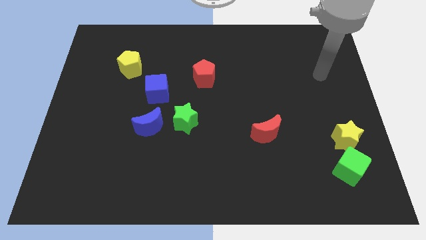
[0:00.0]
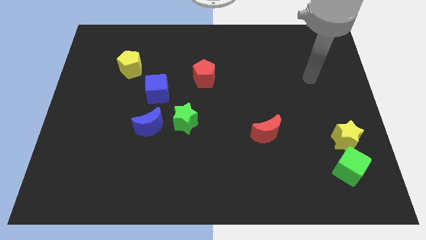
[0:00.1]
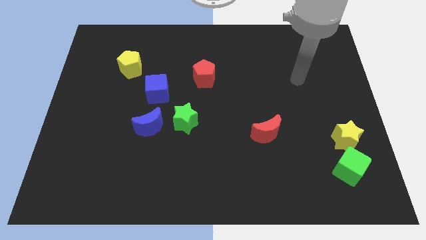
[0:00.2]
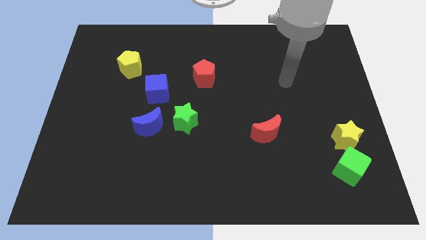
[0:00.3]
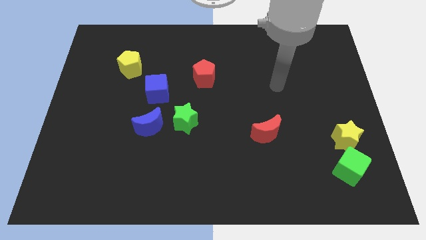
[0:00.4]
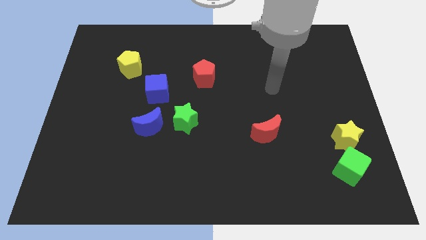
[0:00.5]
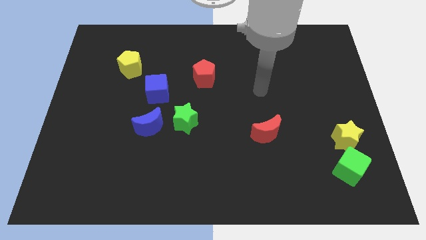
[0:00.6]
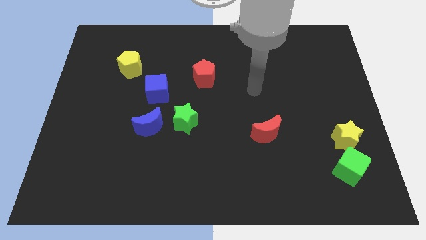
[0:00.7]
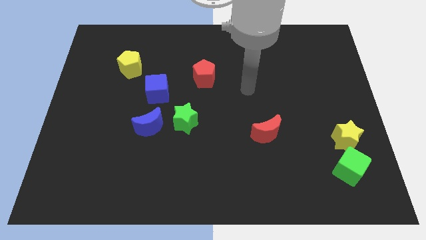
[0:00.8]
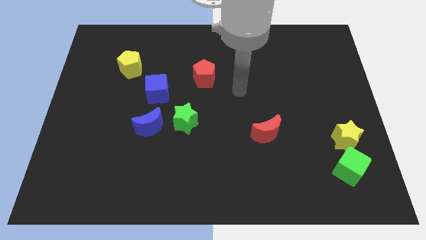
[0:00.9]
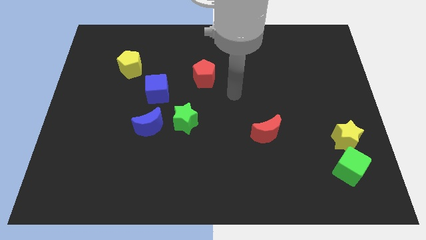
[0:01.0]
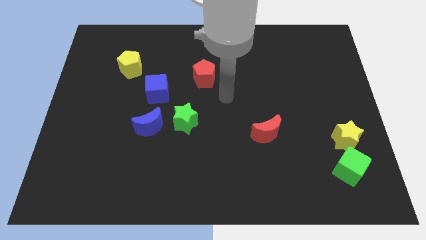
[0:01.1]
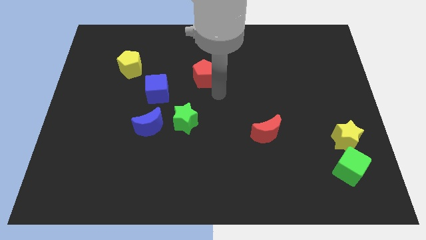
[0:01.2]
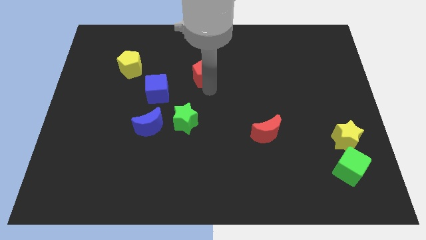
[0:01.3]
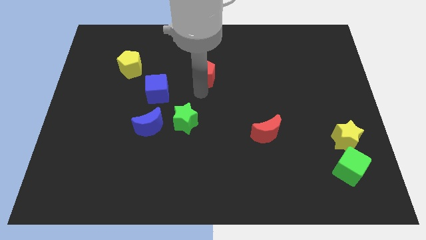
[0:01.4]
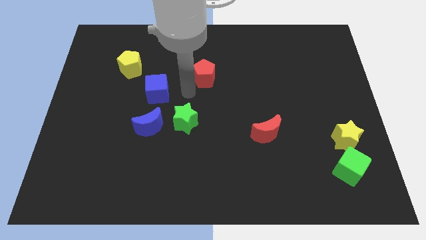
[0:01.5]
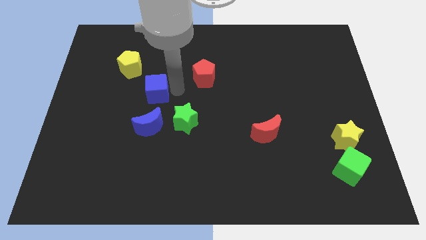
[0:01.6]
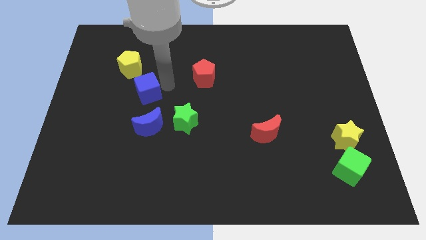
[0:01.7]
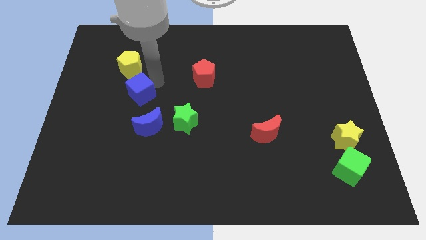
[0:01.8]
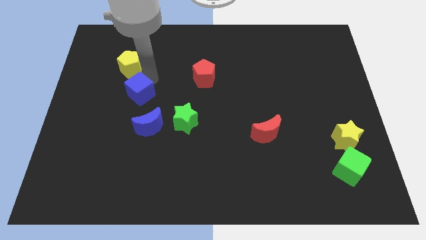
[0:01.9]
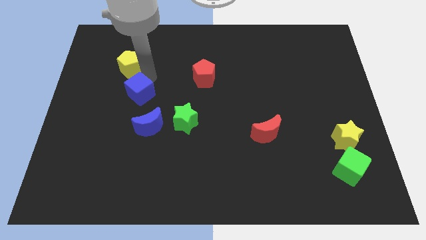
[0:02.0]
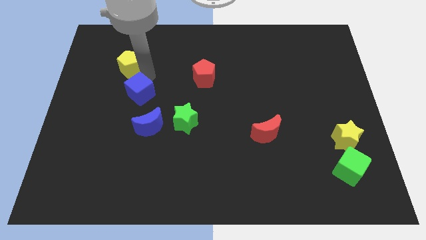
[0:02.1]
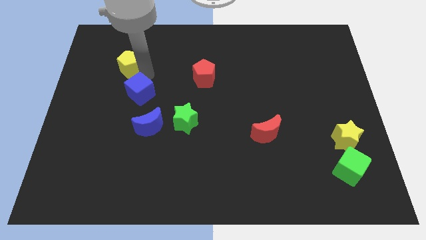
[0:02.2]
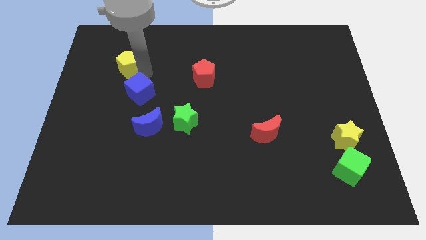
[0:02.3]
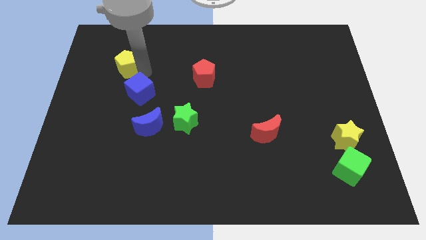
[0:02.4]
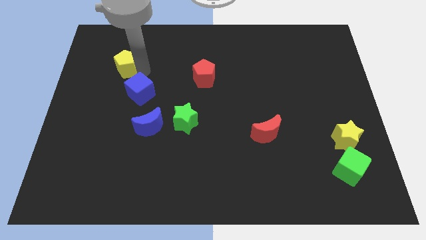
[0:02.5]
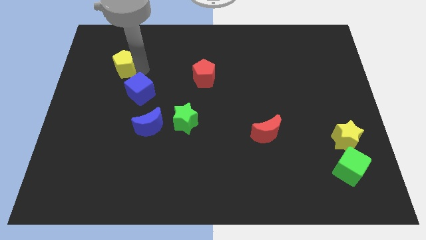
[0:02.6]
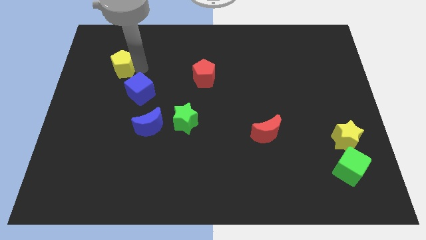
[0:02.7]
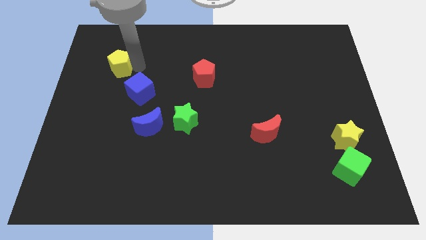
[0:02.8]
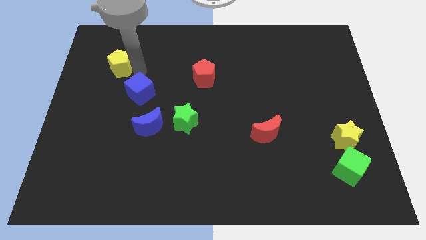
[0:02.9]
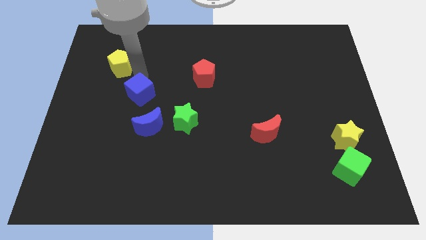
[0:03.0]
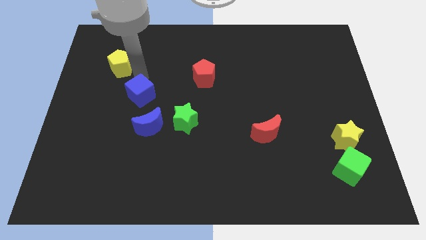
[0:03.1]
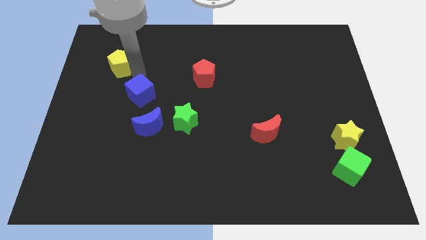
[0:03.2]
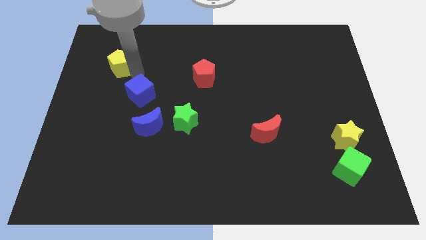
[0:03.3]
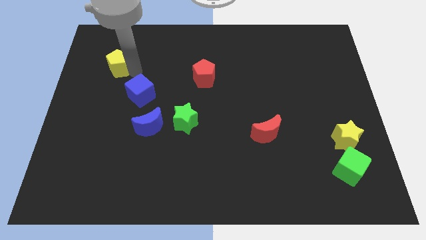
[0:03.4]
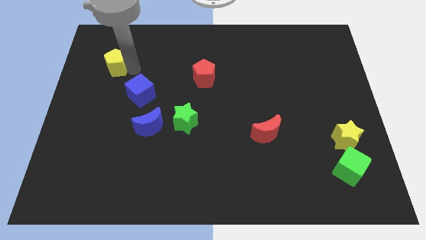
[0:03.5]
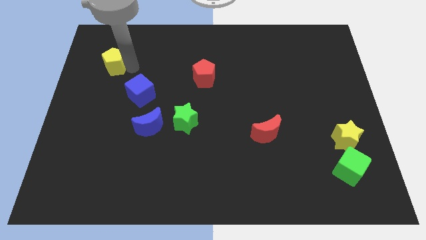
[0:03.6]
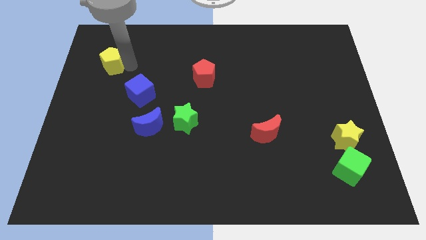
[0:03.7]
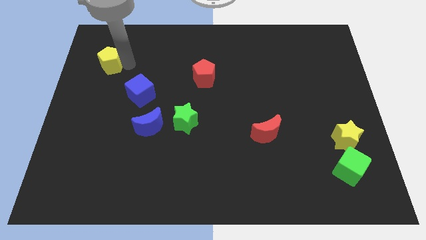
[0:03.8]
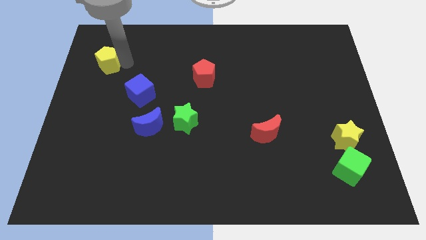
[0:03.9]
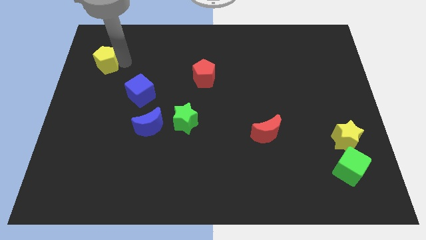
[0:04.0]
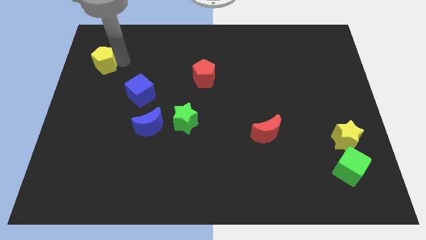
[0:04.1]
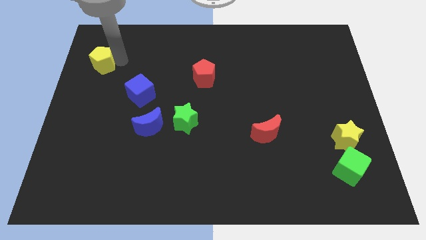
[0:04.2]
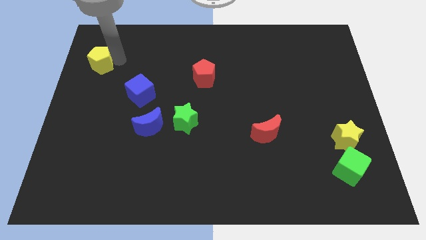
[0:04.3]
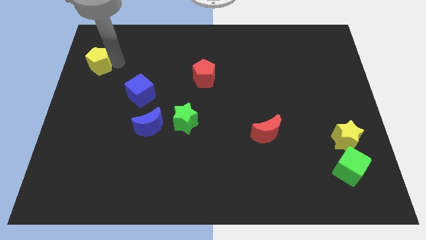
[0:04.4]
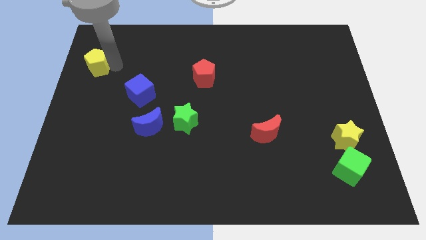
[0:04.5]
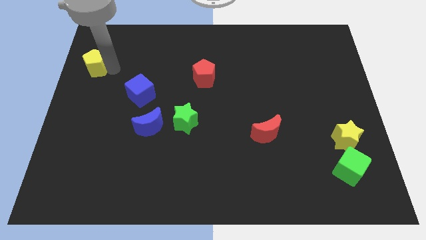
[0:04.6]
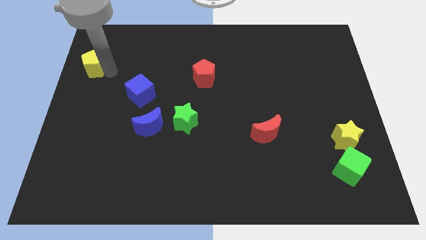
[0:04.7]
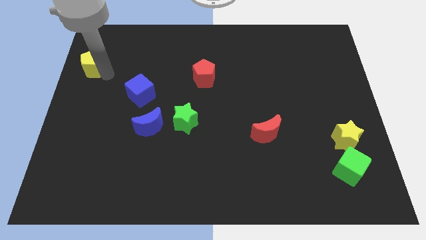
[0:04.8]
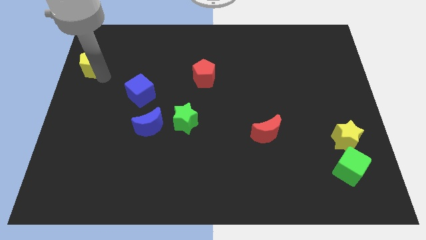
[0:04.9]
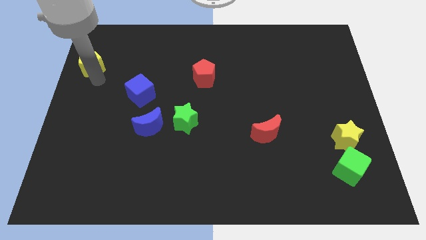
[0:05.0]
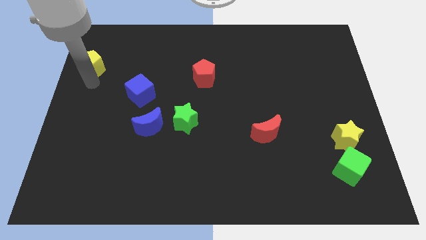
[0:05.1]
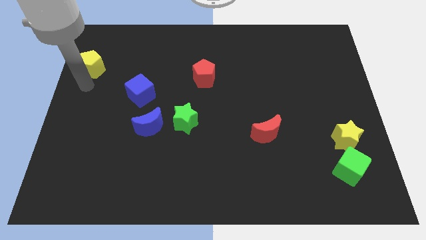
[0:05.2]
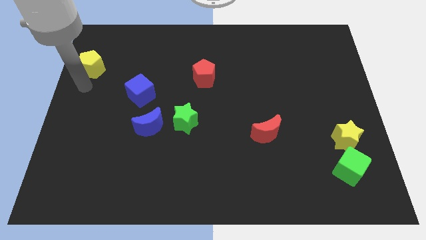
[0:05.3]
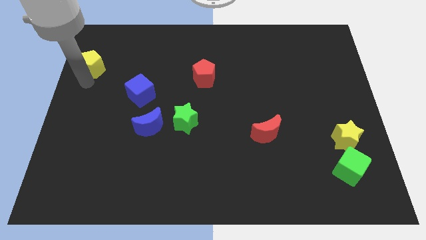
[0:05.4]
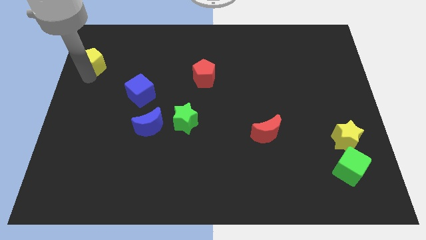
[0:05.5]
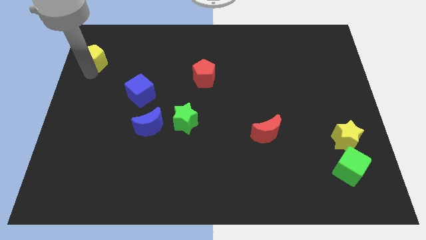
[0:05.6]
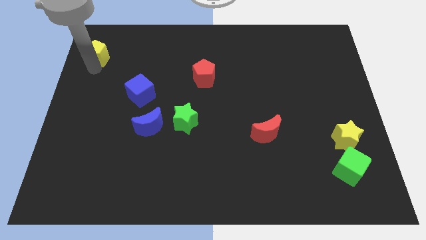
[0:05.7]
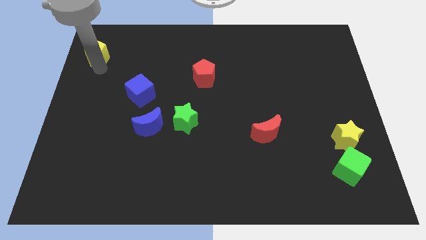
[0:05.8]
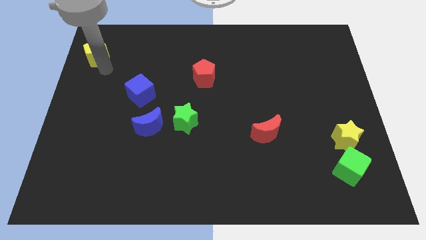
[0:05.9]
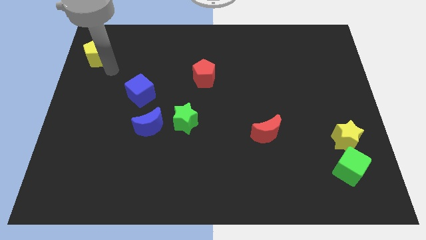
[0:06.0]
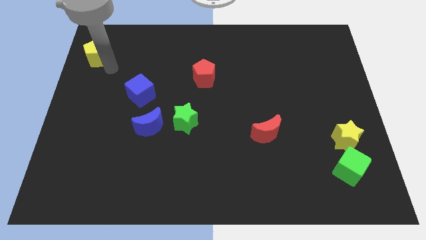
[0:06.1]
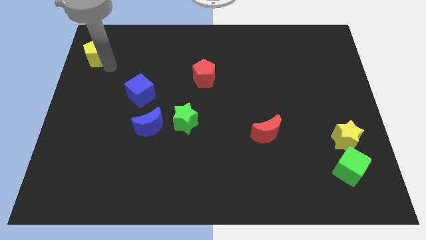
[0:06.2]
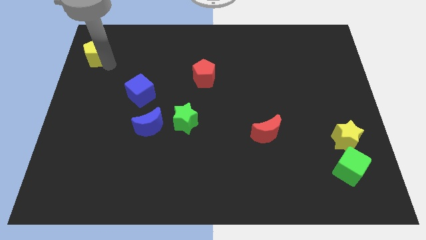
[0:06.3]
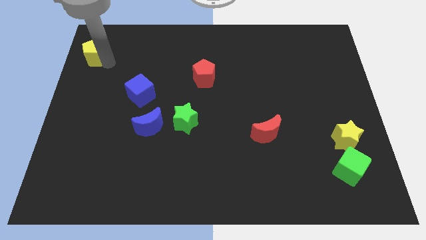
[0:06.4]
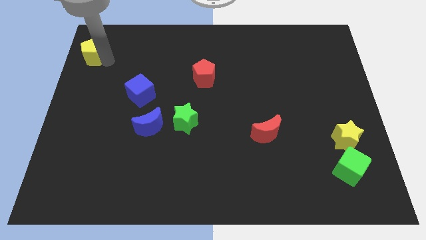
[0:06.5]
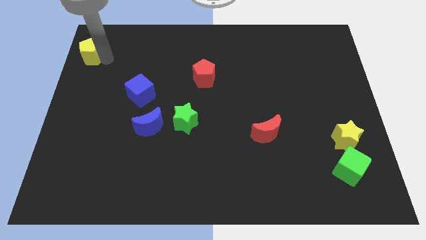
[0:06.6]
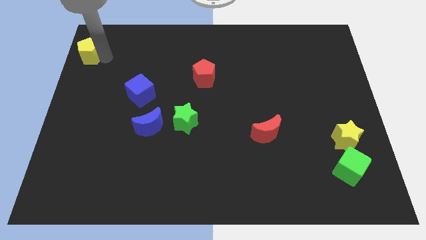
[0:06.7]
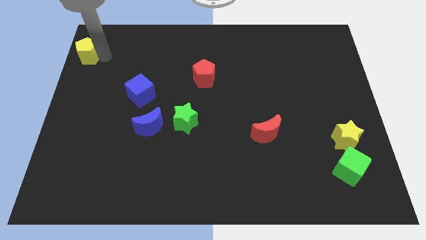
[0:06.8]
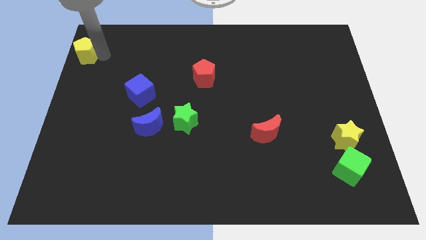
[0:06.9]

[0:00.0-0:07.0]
slide the yellow pentagon to the top left of the board
